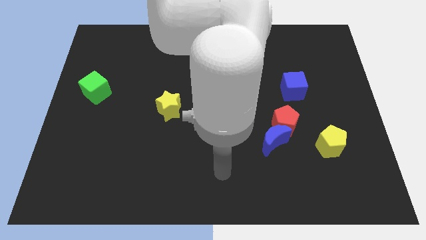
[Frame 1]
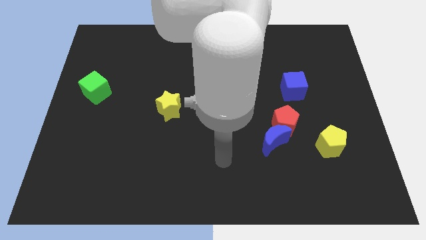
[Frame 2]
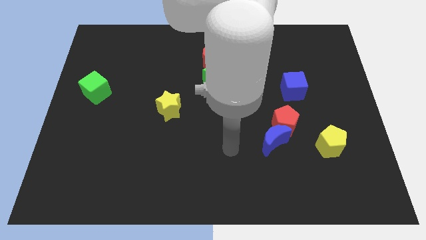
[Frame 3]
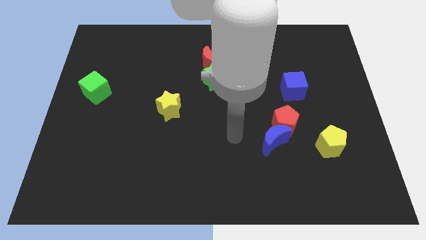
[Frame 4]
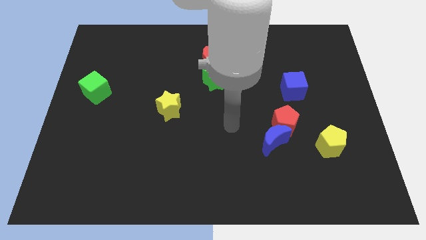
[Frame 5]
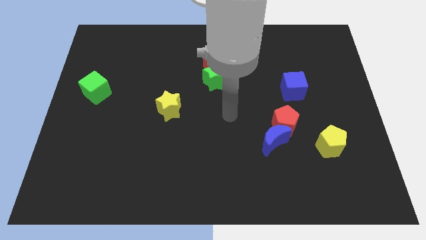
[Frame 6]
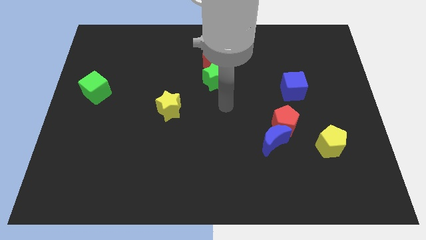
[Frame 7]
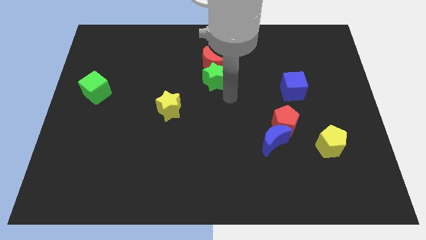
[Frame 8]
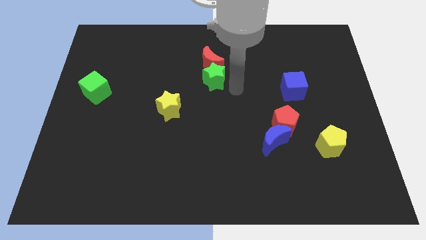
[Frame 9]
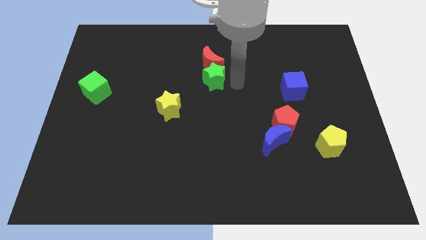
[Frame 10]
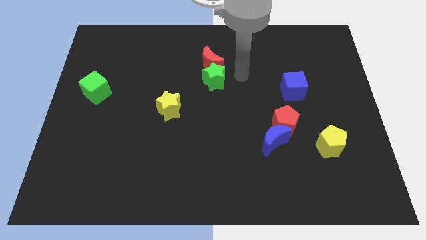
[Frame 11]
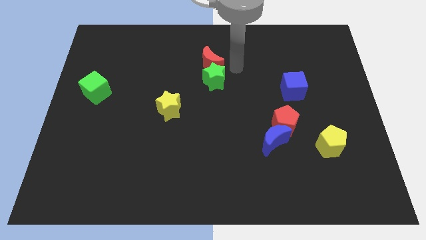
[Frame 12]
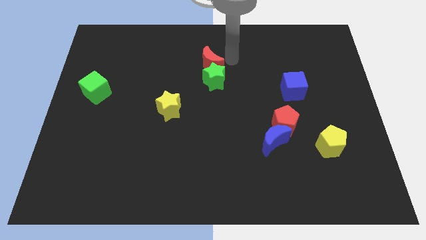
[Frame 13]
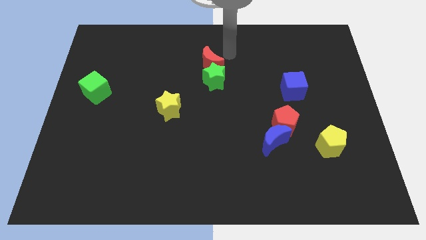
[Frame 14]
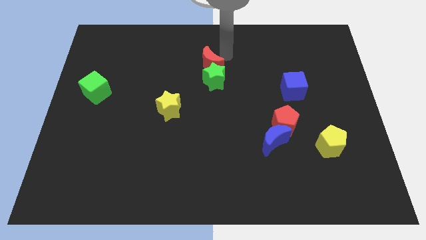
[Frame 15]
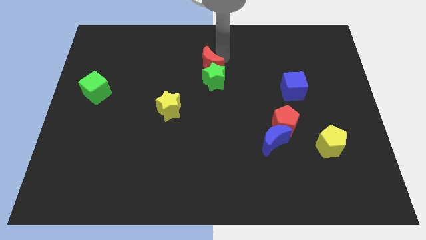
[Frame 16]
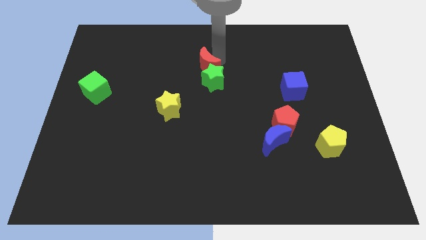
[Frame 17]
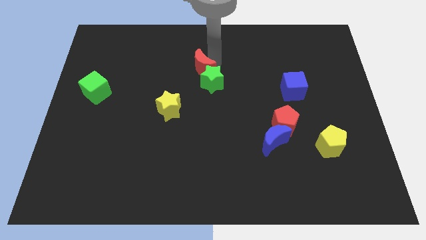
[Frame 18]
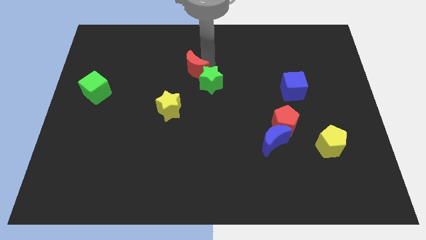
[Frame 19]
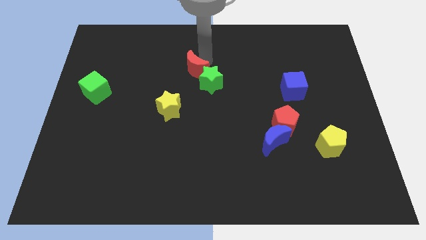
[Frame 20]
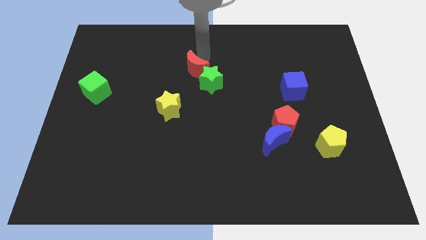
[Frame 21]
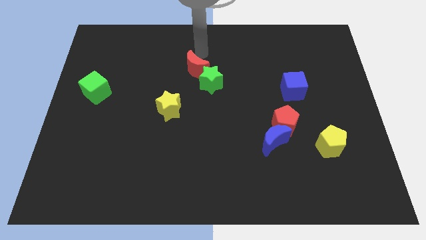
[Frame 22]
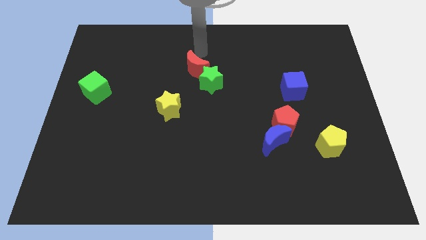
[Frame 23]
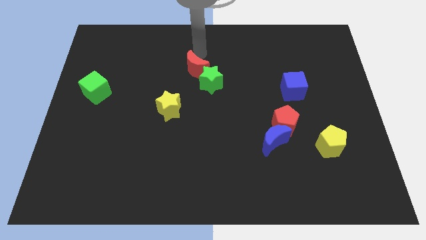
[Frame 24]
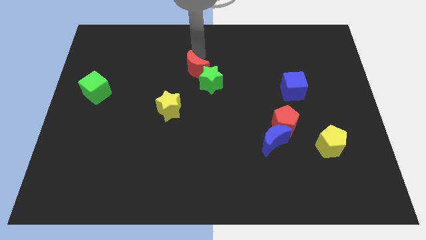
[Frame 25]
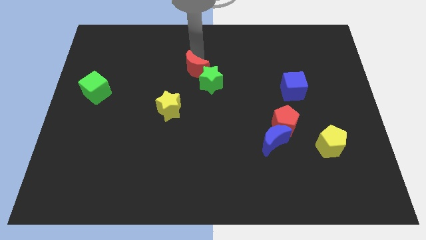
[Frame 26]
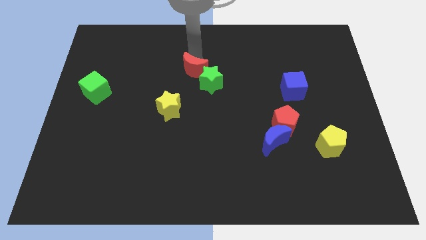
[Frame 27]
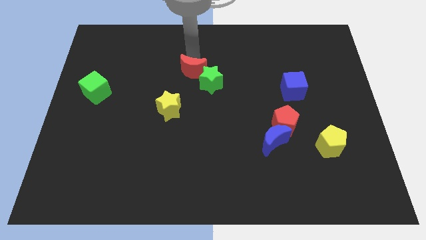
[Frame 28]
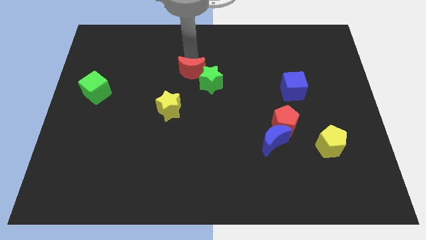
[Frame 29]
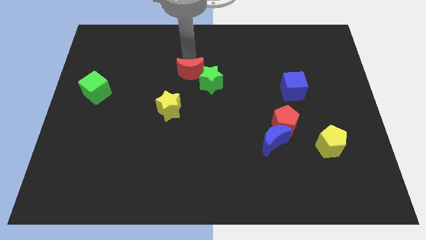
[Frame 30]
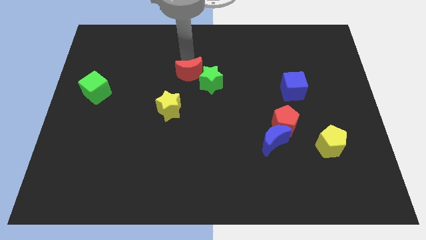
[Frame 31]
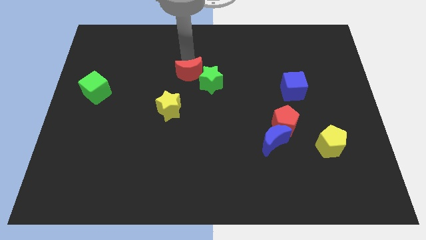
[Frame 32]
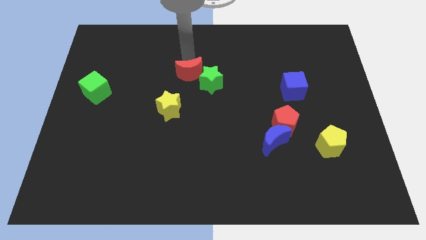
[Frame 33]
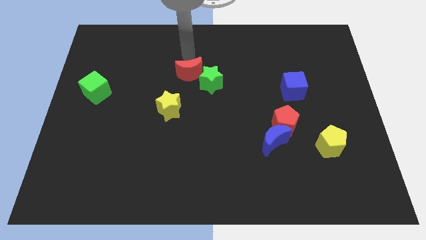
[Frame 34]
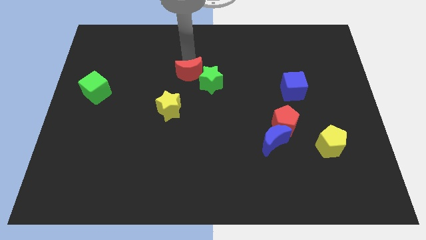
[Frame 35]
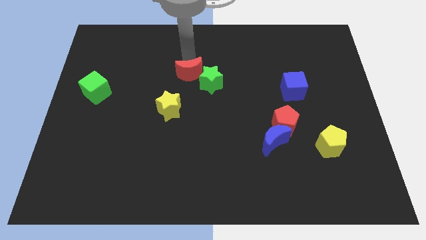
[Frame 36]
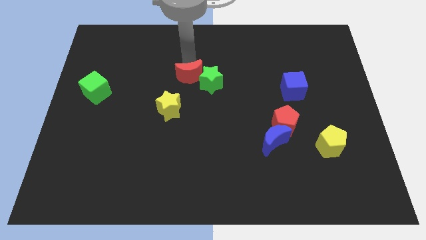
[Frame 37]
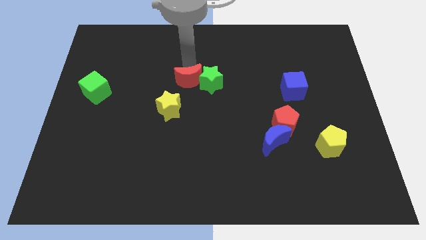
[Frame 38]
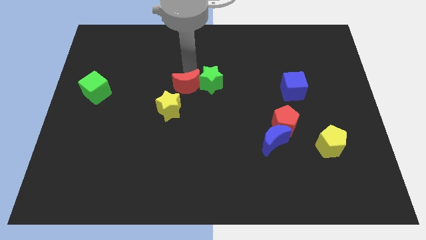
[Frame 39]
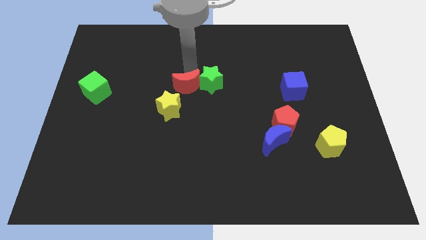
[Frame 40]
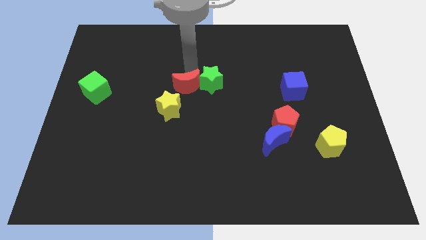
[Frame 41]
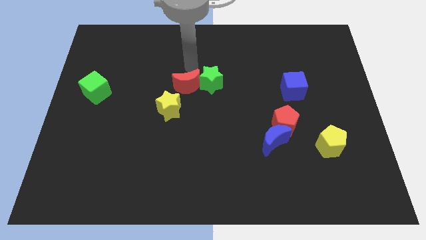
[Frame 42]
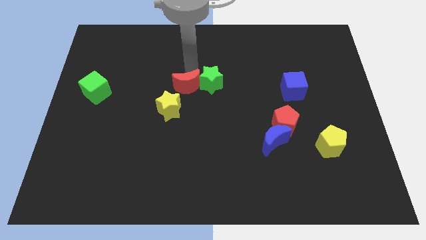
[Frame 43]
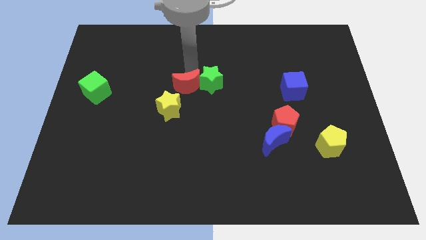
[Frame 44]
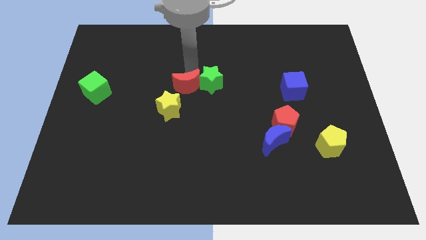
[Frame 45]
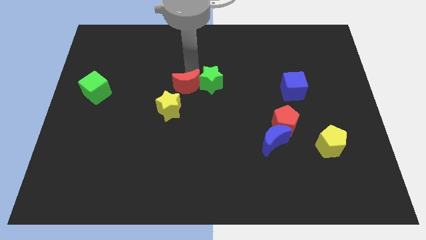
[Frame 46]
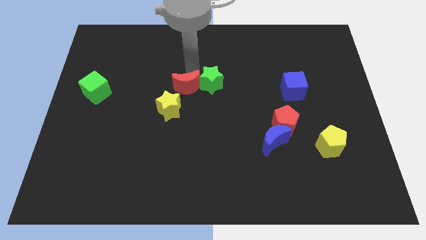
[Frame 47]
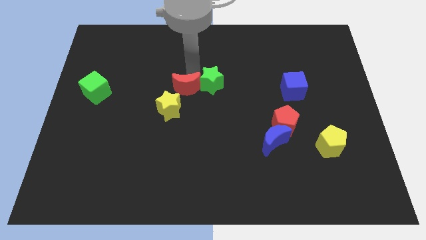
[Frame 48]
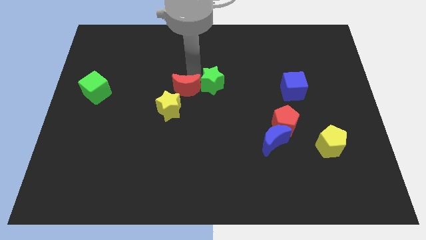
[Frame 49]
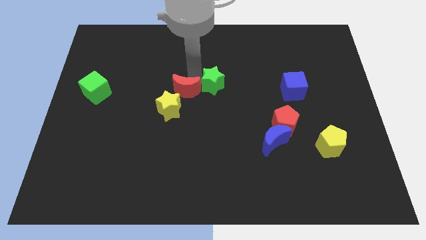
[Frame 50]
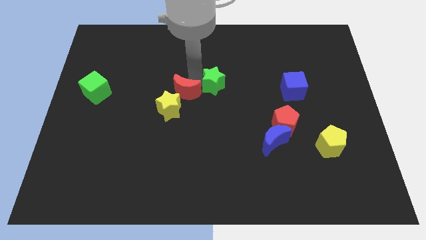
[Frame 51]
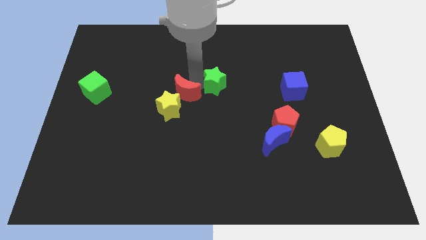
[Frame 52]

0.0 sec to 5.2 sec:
slide the red moon to the yellow star

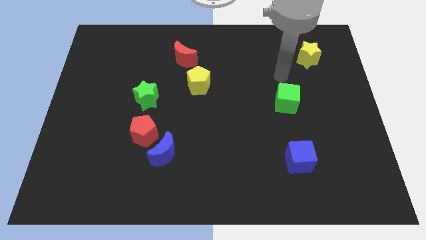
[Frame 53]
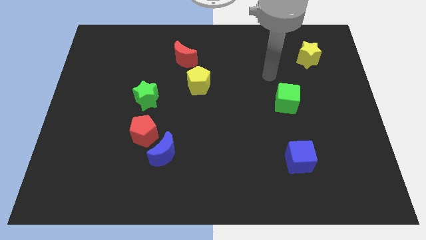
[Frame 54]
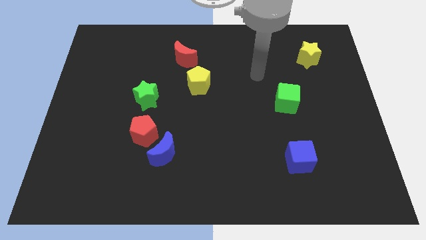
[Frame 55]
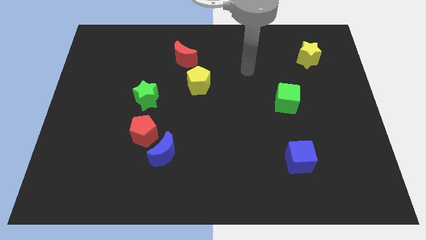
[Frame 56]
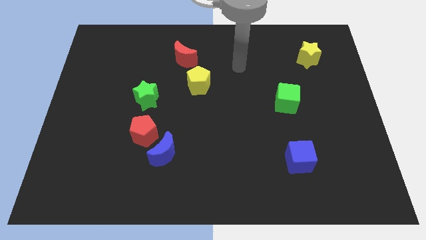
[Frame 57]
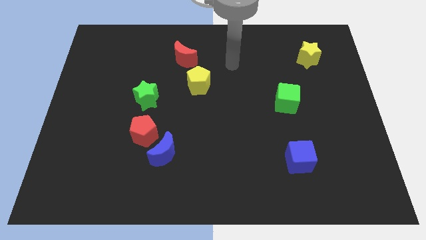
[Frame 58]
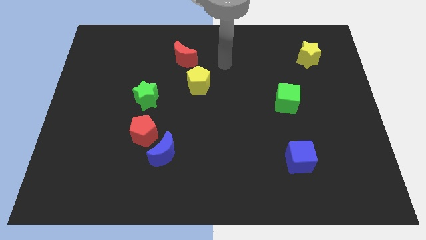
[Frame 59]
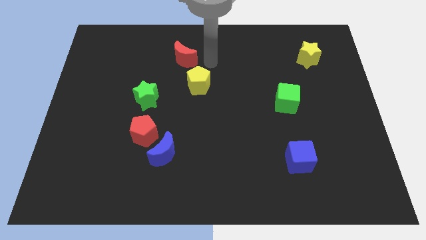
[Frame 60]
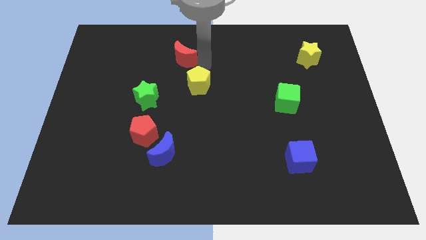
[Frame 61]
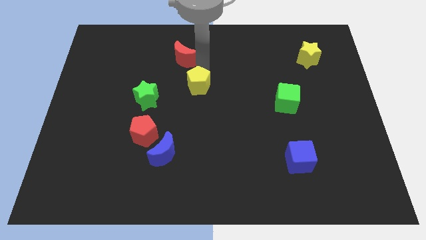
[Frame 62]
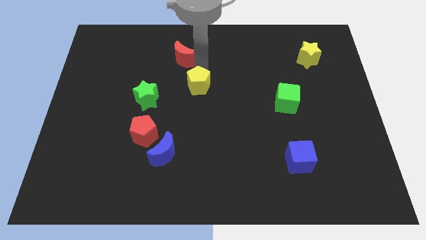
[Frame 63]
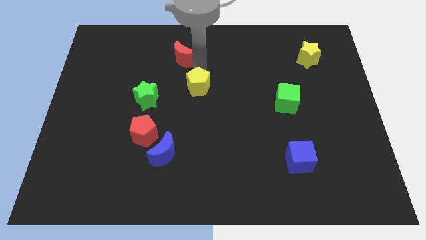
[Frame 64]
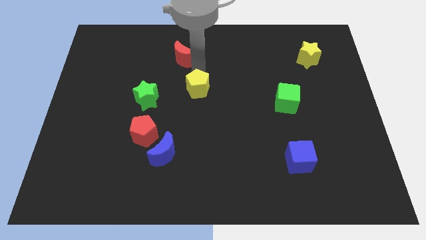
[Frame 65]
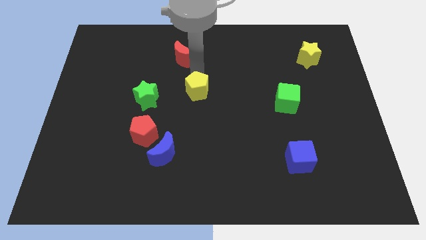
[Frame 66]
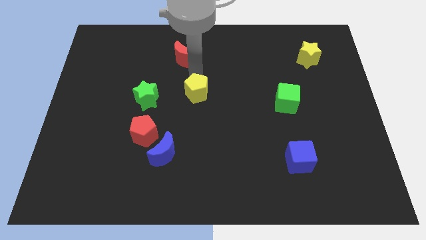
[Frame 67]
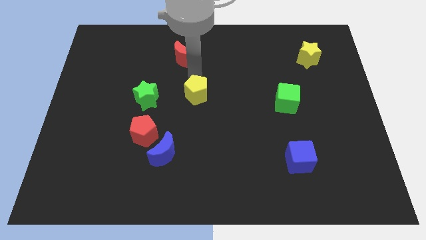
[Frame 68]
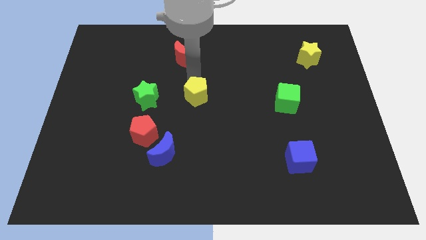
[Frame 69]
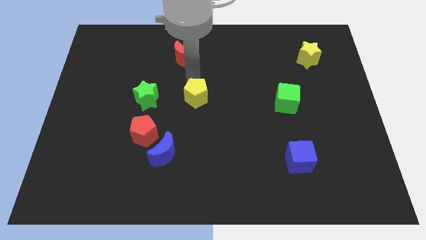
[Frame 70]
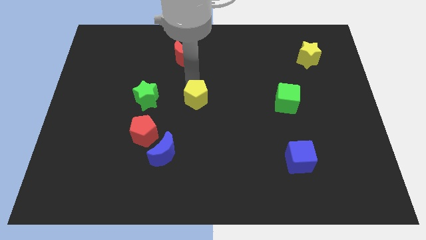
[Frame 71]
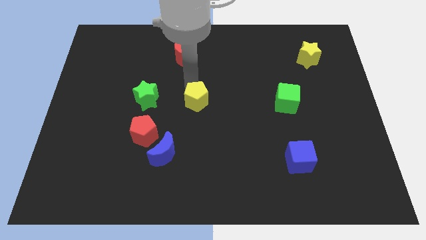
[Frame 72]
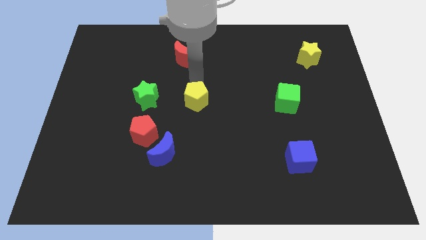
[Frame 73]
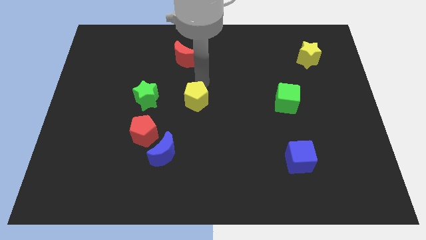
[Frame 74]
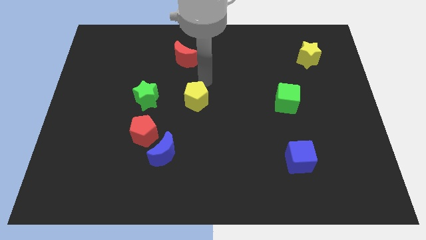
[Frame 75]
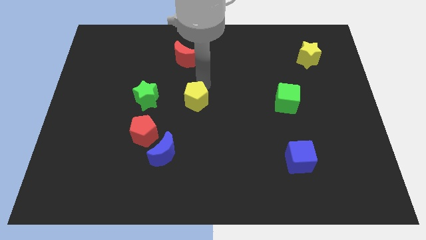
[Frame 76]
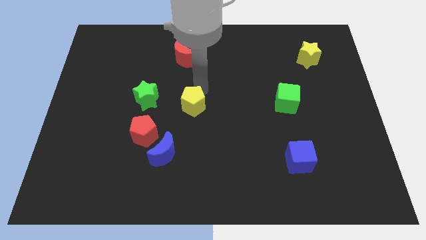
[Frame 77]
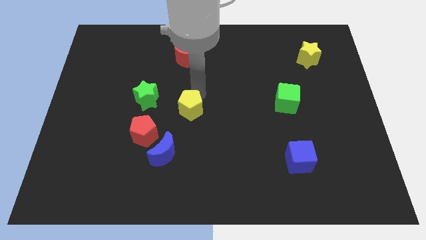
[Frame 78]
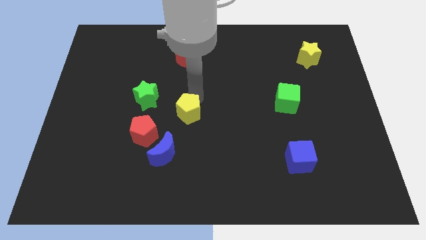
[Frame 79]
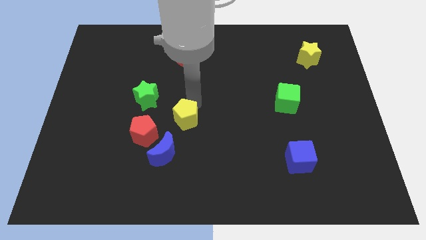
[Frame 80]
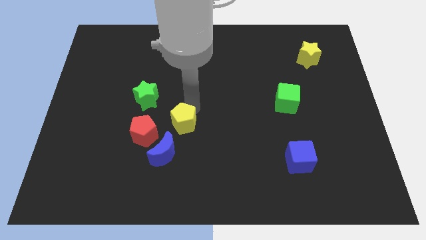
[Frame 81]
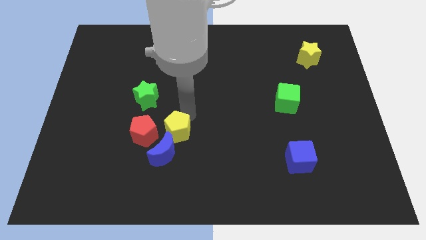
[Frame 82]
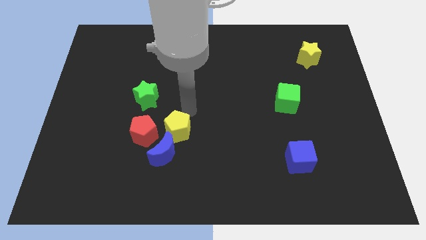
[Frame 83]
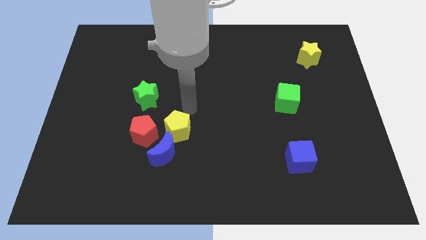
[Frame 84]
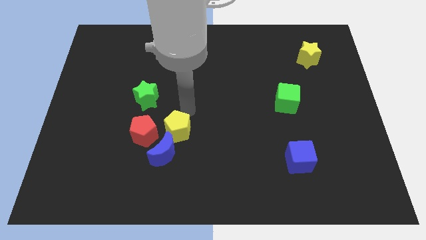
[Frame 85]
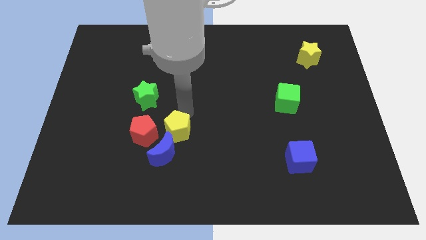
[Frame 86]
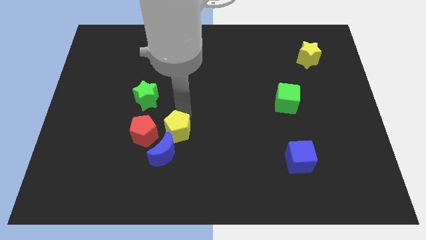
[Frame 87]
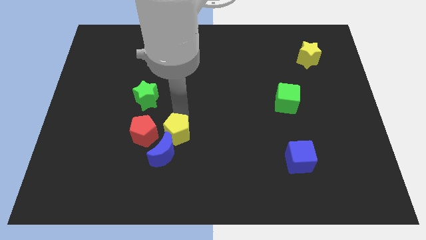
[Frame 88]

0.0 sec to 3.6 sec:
move the yellow pentagon close to the blue moon
